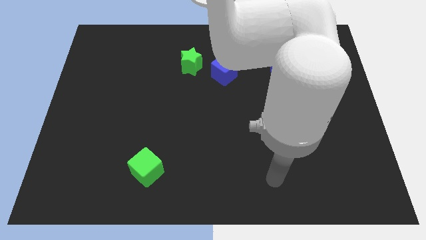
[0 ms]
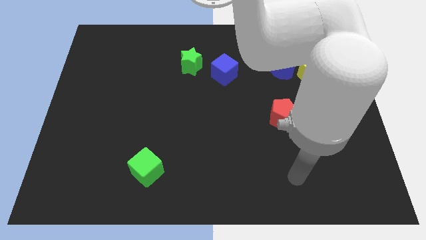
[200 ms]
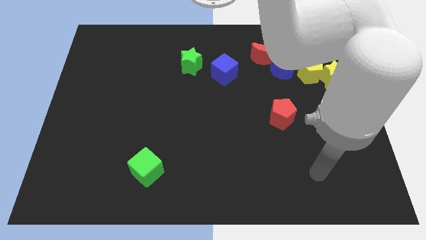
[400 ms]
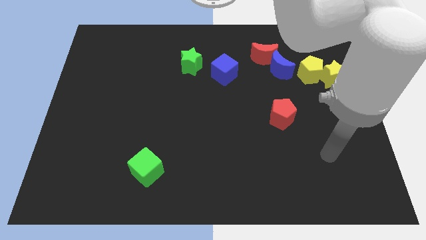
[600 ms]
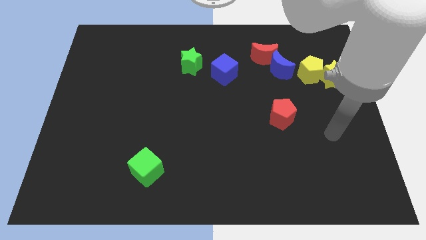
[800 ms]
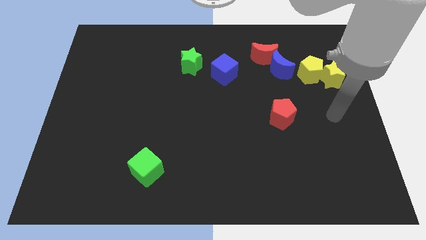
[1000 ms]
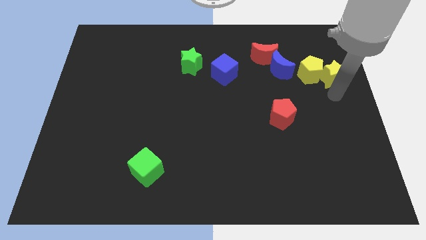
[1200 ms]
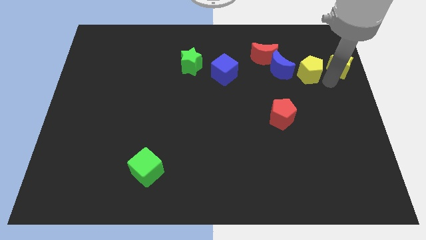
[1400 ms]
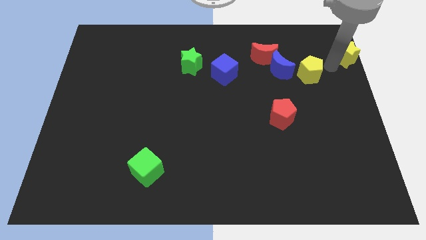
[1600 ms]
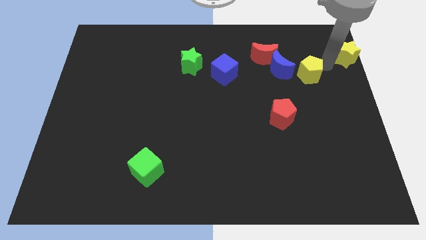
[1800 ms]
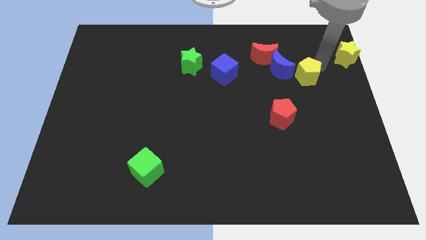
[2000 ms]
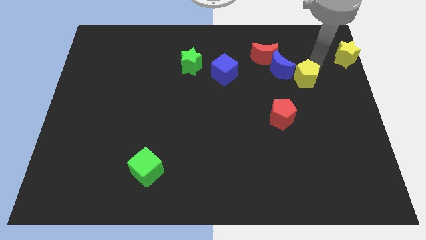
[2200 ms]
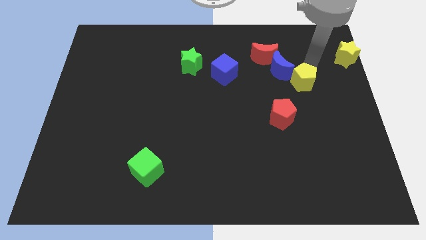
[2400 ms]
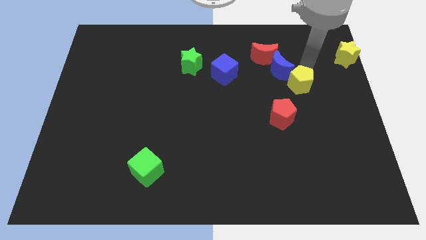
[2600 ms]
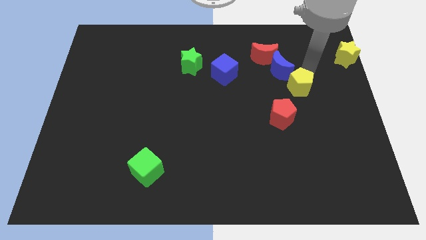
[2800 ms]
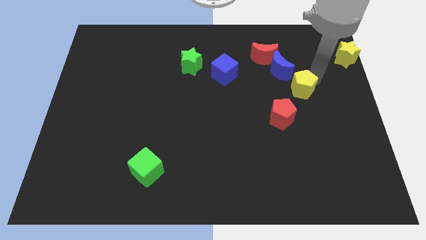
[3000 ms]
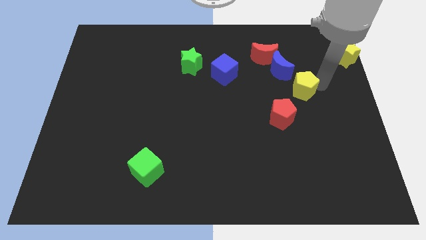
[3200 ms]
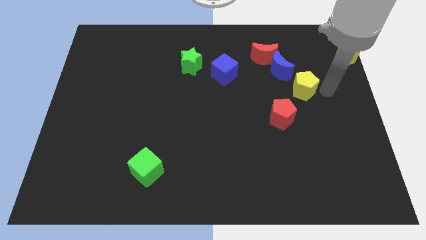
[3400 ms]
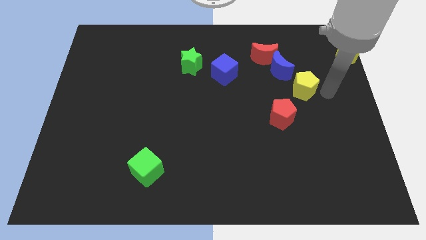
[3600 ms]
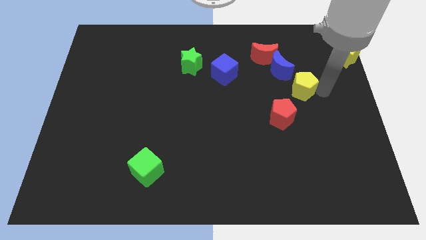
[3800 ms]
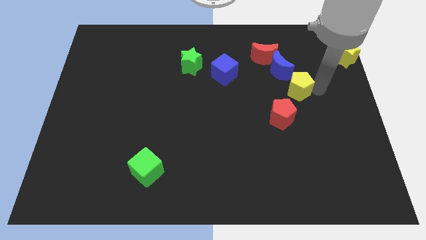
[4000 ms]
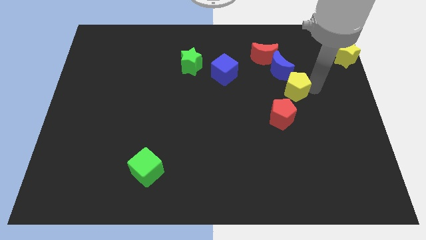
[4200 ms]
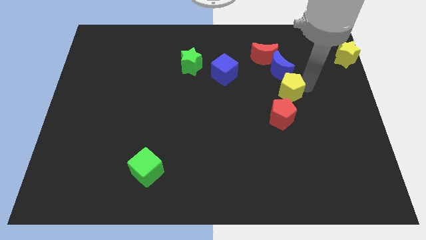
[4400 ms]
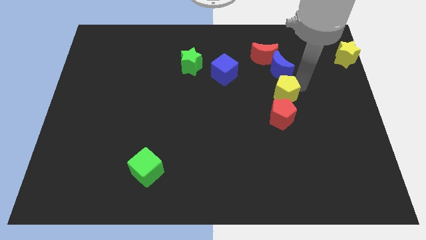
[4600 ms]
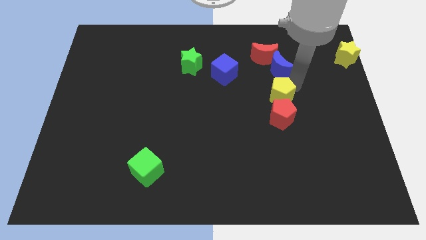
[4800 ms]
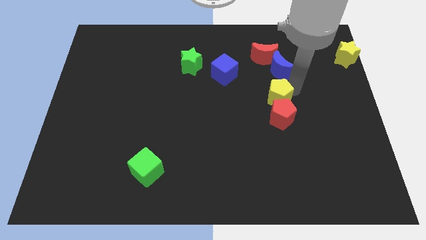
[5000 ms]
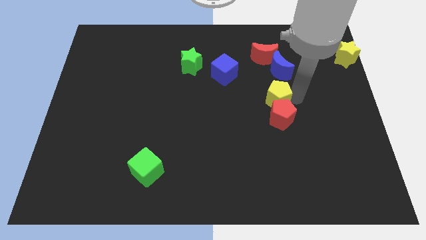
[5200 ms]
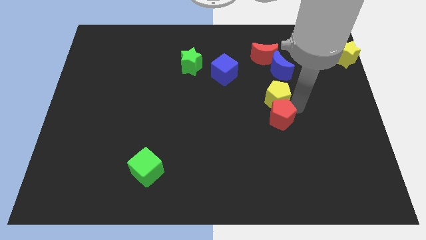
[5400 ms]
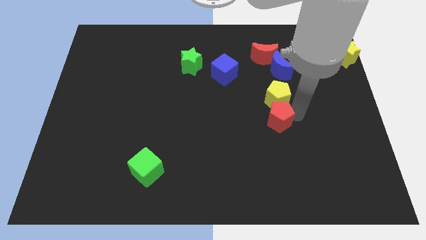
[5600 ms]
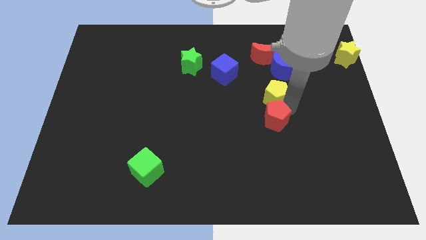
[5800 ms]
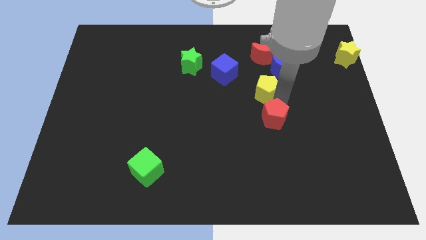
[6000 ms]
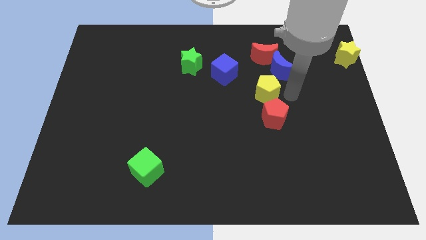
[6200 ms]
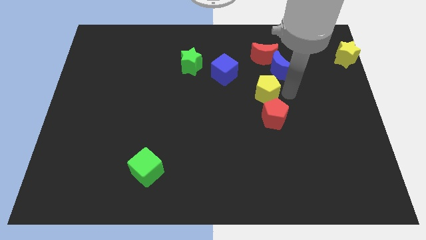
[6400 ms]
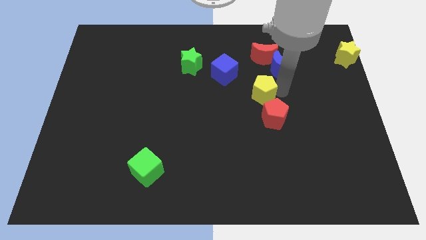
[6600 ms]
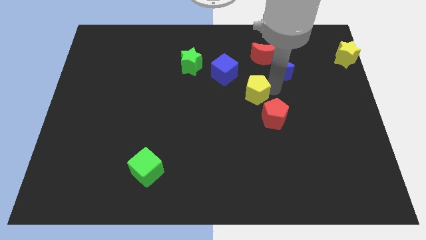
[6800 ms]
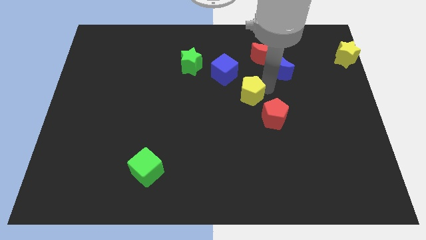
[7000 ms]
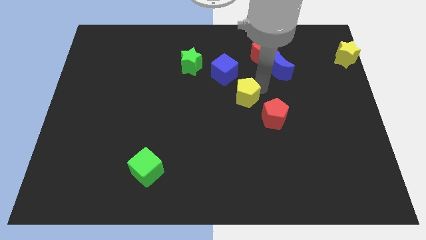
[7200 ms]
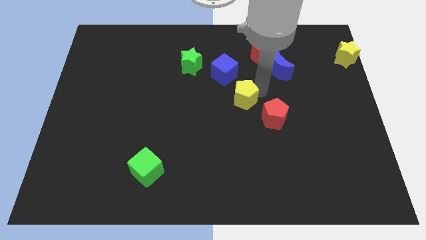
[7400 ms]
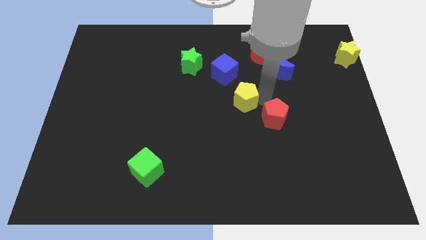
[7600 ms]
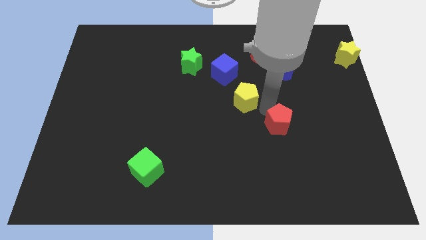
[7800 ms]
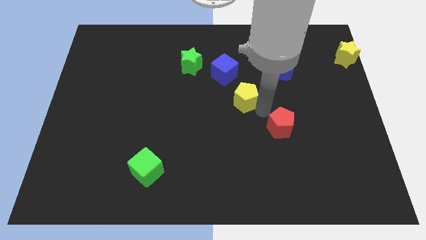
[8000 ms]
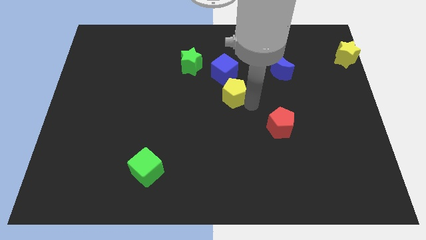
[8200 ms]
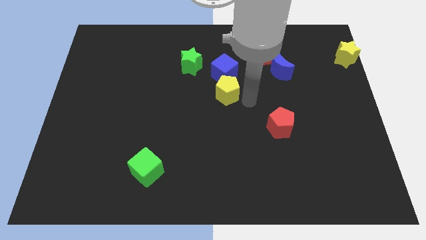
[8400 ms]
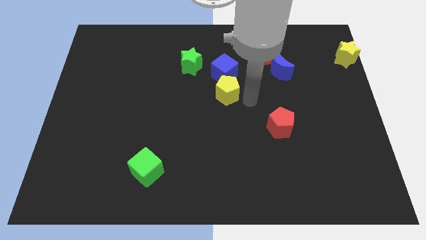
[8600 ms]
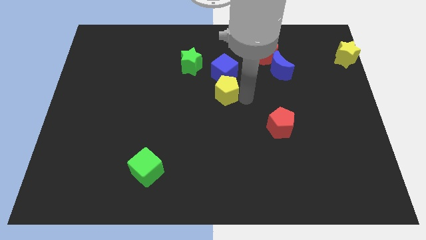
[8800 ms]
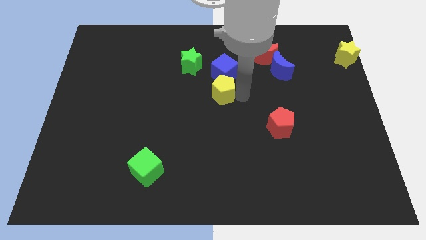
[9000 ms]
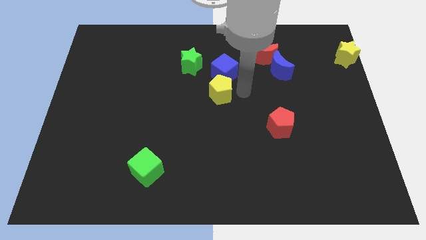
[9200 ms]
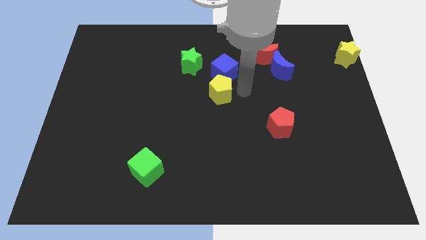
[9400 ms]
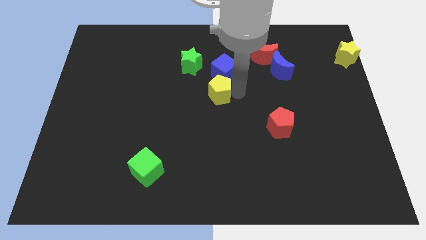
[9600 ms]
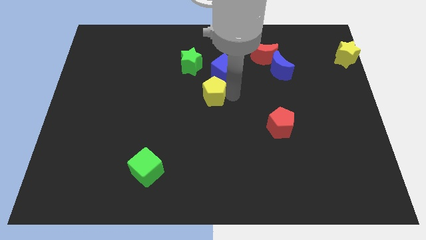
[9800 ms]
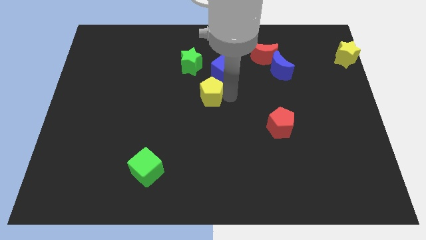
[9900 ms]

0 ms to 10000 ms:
move the yellow pentagon to the bottom side of the green star

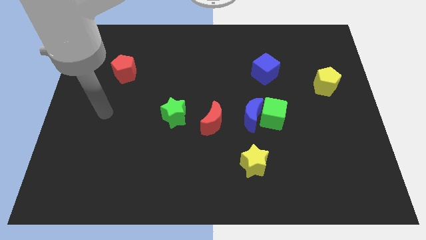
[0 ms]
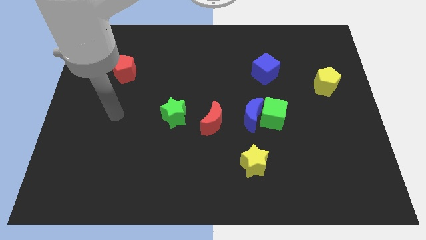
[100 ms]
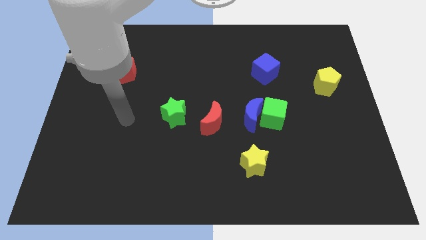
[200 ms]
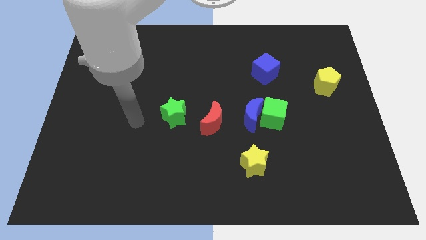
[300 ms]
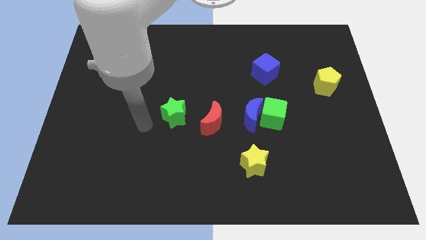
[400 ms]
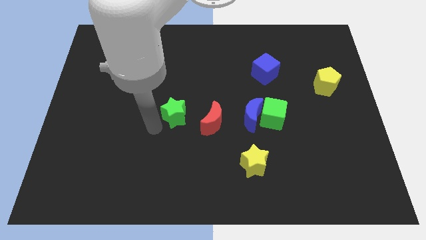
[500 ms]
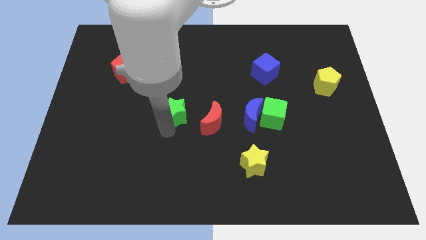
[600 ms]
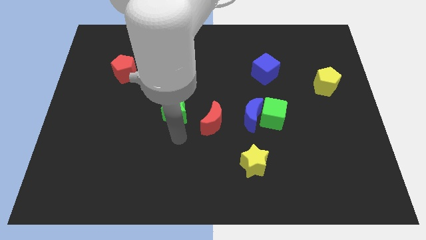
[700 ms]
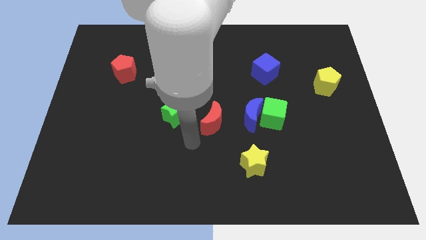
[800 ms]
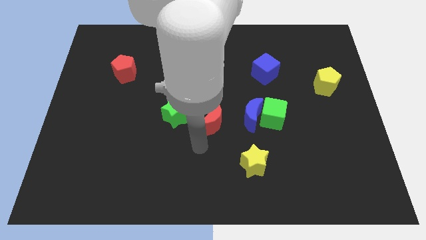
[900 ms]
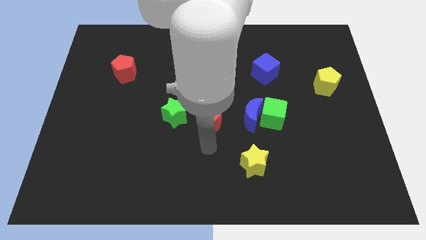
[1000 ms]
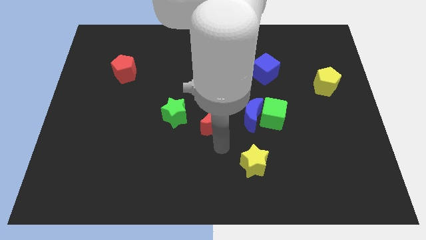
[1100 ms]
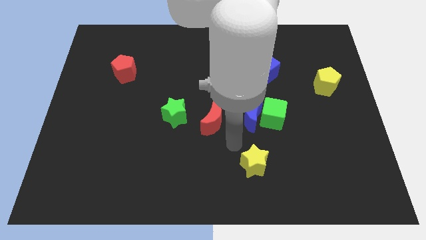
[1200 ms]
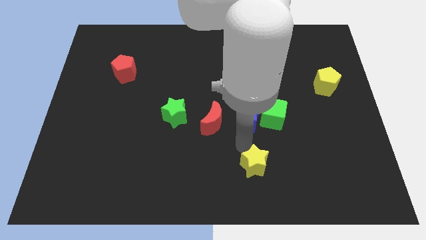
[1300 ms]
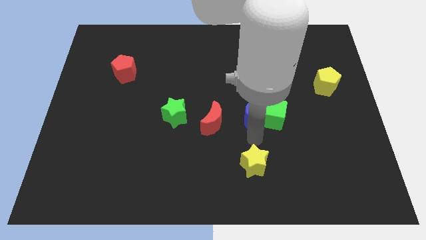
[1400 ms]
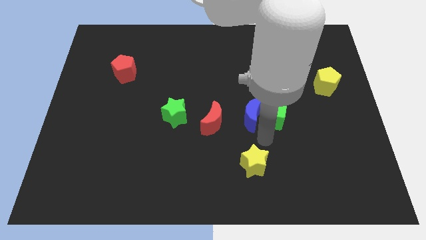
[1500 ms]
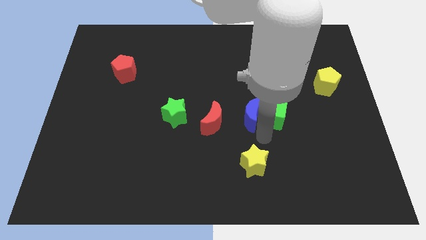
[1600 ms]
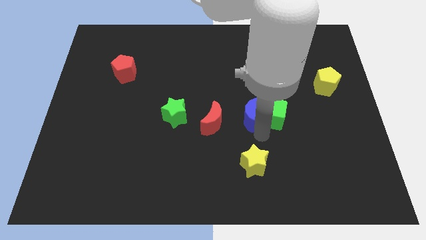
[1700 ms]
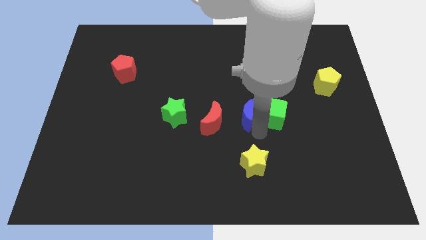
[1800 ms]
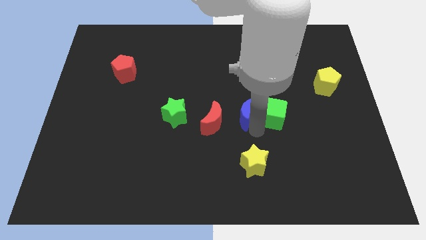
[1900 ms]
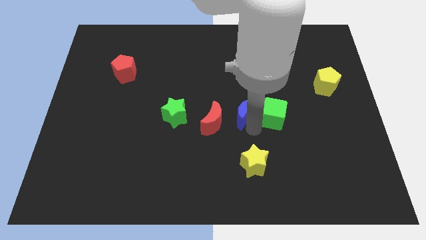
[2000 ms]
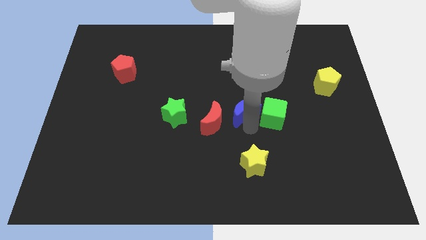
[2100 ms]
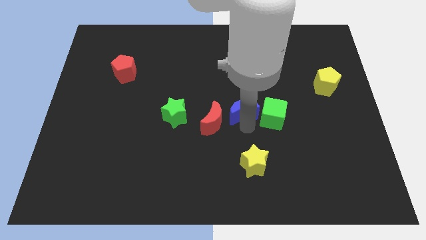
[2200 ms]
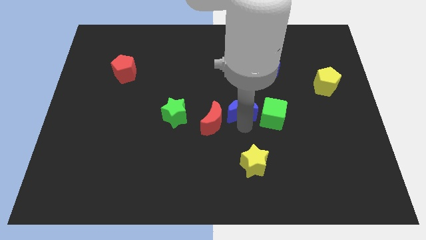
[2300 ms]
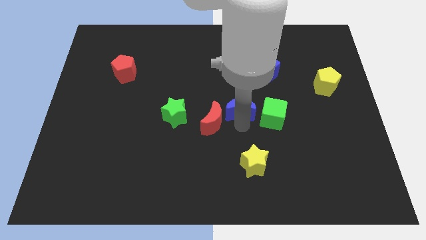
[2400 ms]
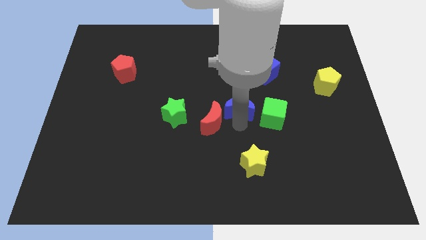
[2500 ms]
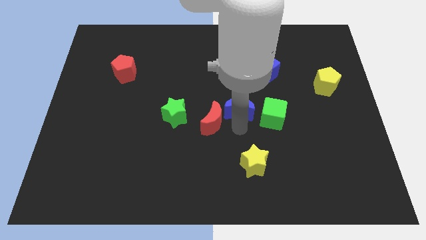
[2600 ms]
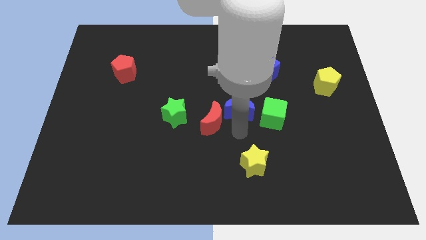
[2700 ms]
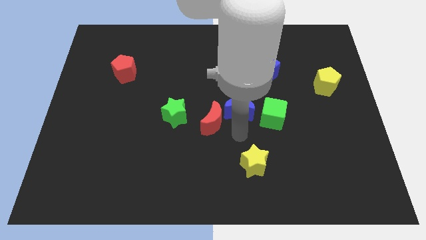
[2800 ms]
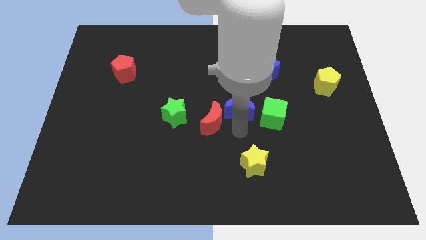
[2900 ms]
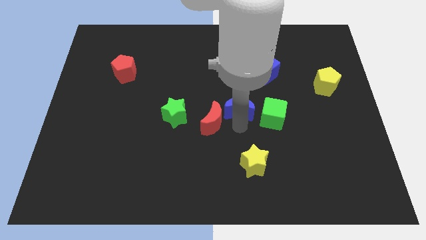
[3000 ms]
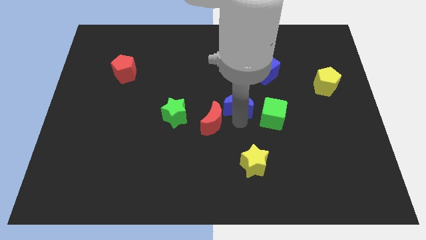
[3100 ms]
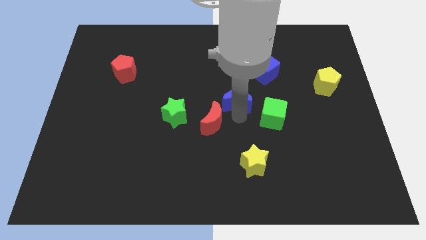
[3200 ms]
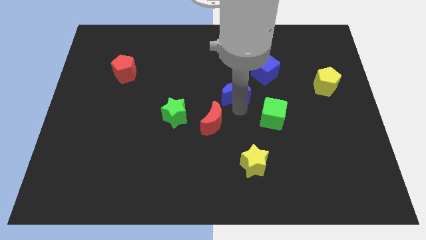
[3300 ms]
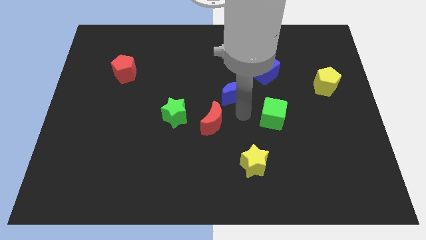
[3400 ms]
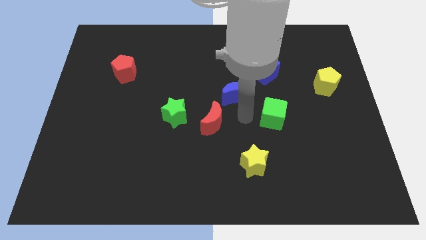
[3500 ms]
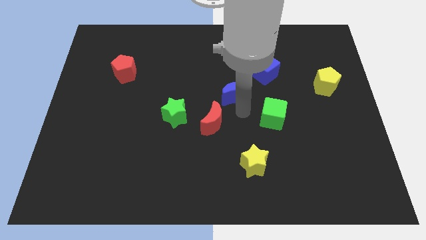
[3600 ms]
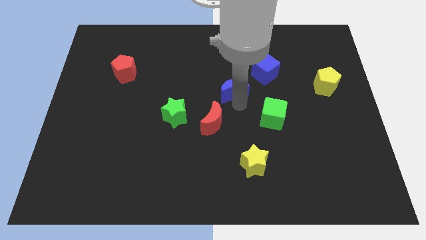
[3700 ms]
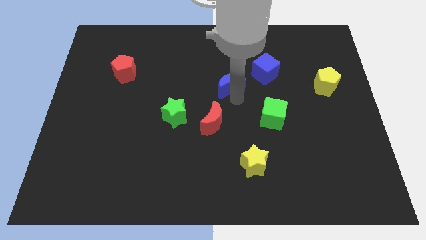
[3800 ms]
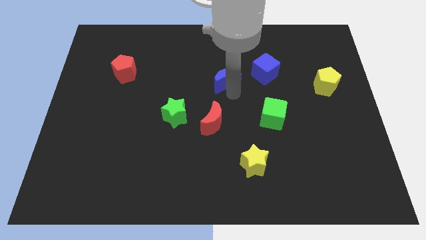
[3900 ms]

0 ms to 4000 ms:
move the blue moon to the left of the blue cube
